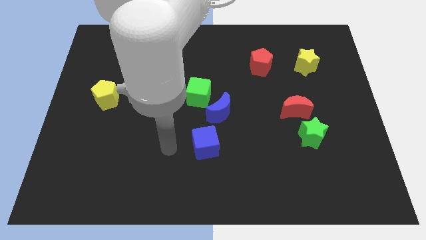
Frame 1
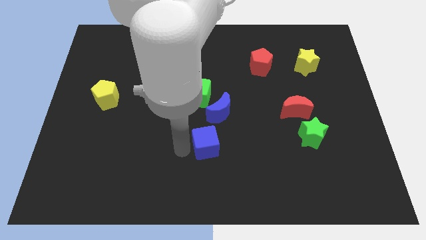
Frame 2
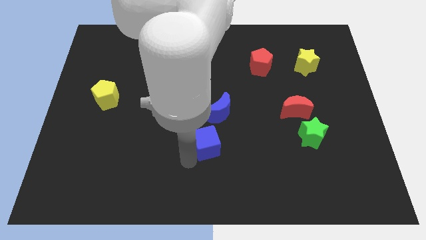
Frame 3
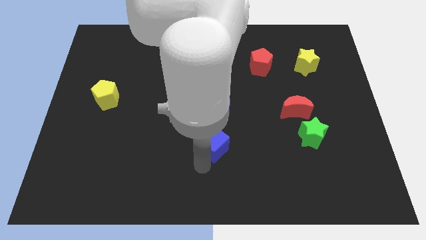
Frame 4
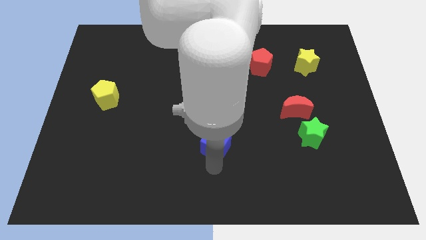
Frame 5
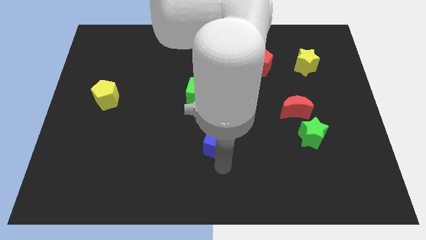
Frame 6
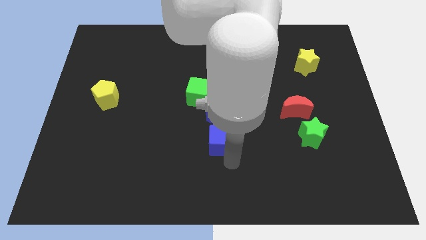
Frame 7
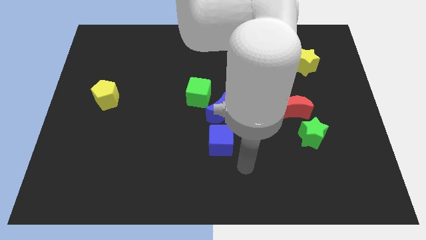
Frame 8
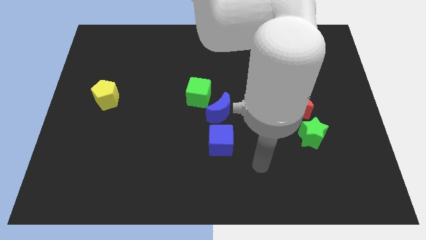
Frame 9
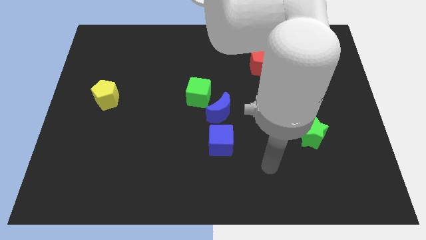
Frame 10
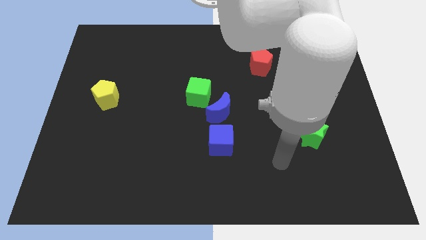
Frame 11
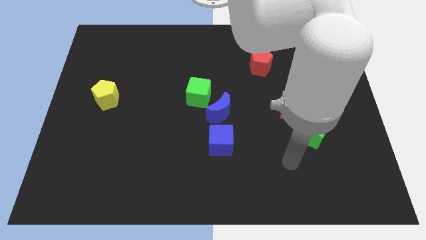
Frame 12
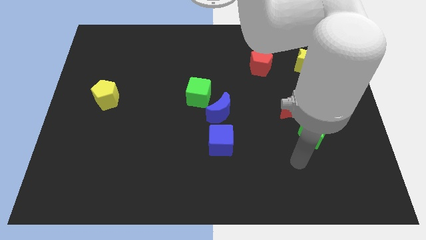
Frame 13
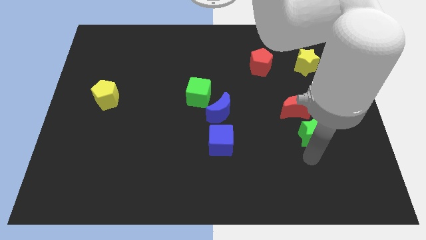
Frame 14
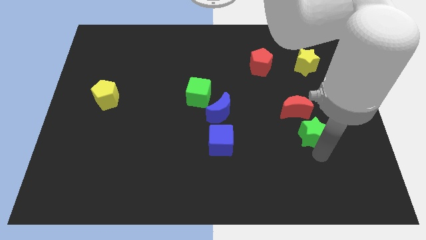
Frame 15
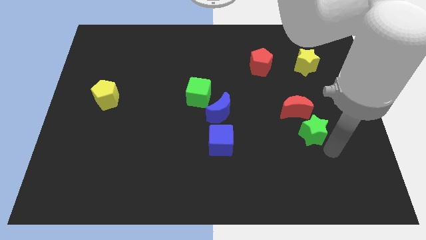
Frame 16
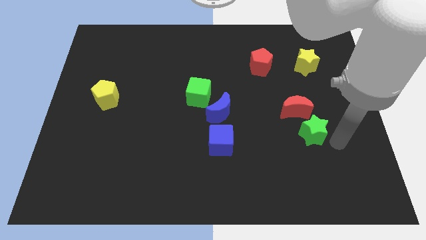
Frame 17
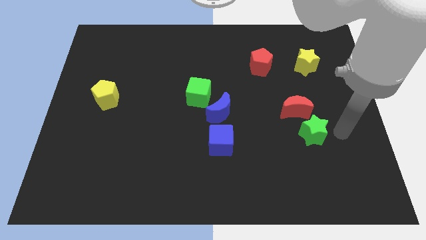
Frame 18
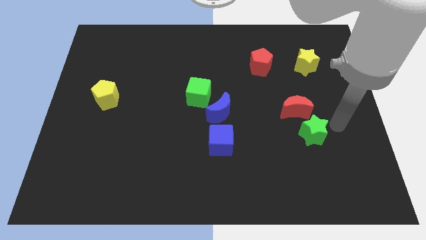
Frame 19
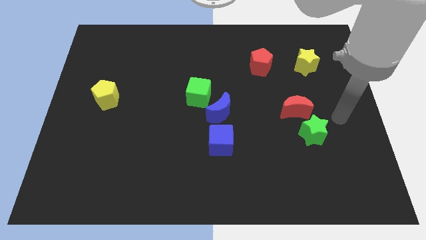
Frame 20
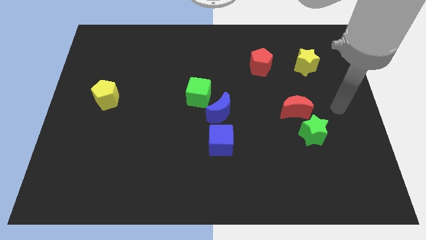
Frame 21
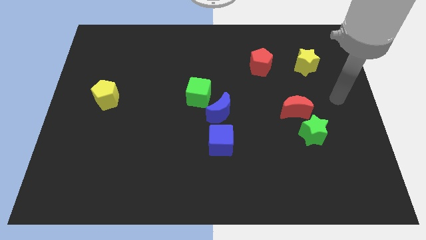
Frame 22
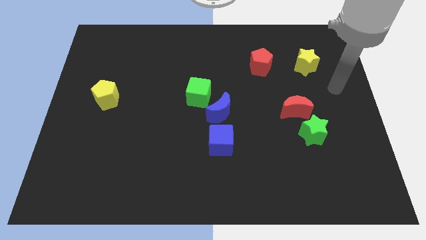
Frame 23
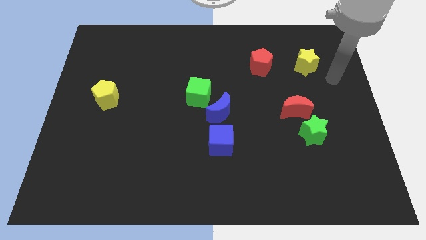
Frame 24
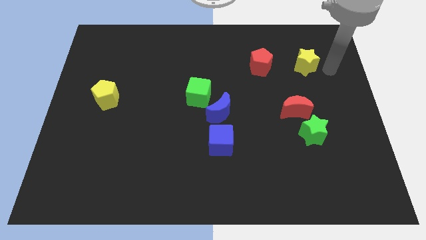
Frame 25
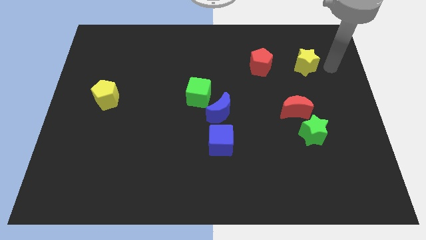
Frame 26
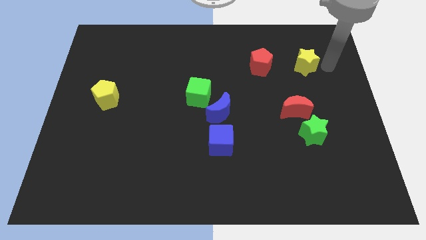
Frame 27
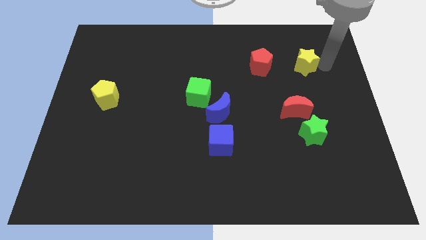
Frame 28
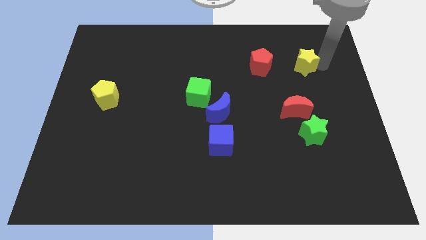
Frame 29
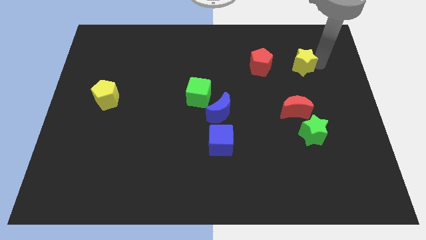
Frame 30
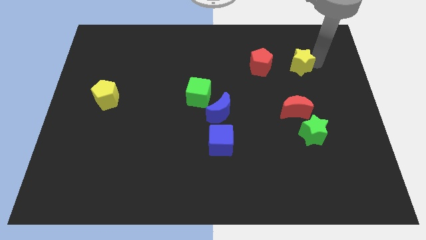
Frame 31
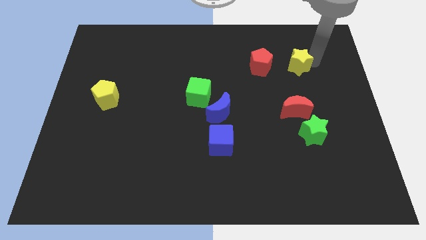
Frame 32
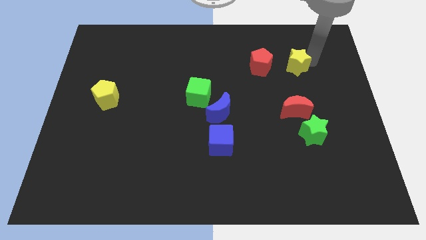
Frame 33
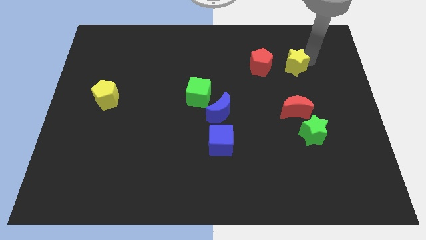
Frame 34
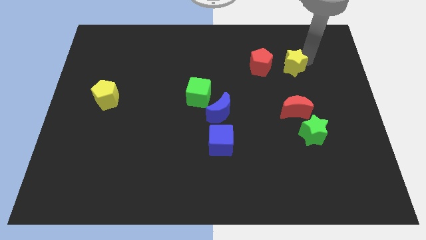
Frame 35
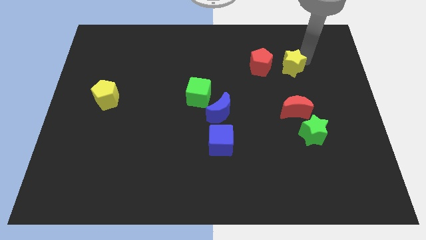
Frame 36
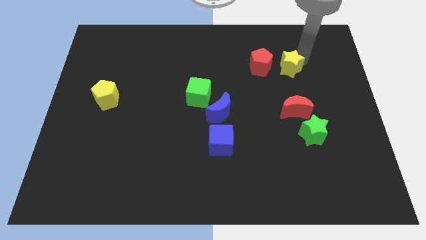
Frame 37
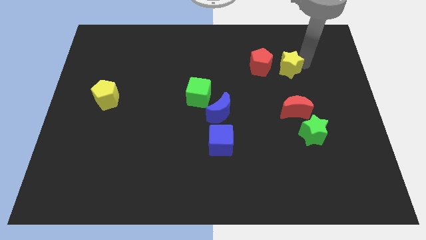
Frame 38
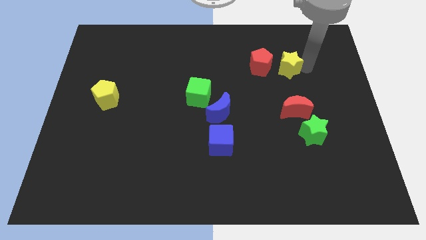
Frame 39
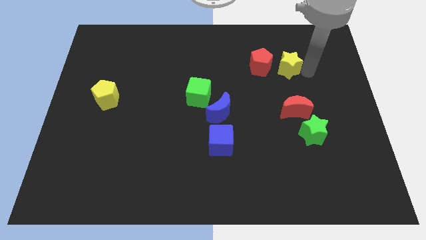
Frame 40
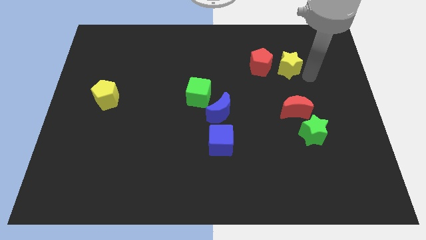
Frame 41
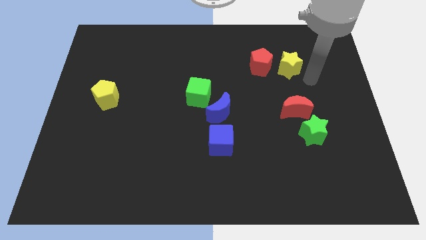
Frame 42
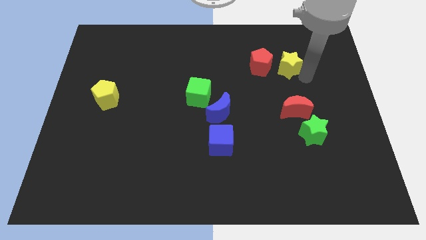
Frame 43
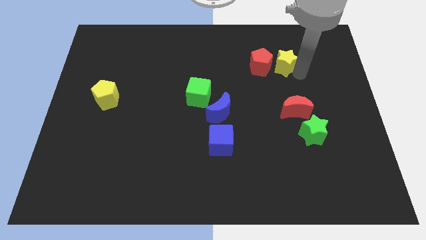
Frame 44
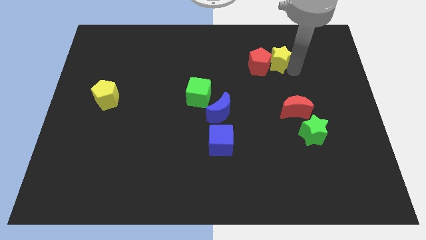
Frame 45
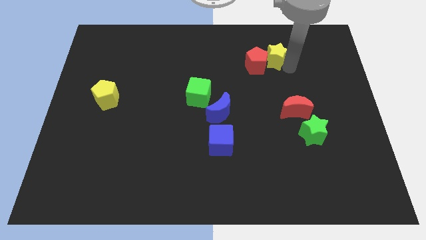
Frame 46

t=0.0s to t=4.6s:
push the yellow star to the left a little bit

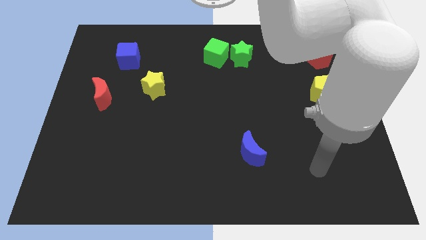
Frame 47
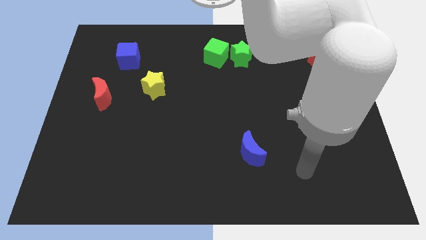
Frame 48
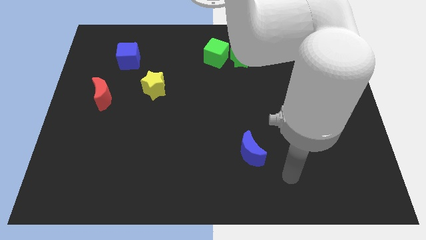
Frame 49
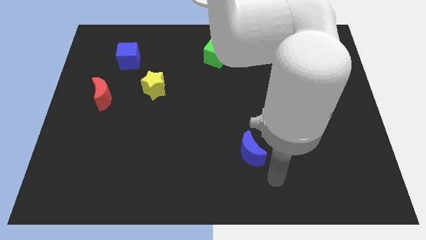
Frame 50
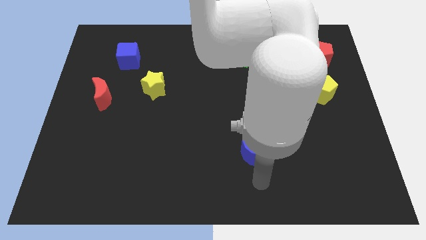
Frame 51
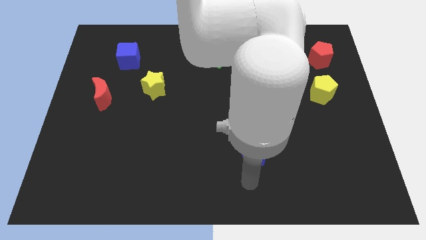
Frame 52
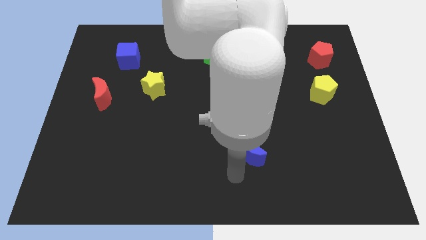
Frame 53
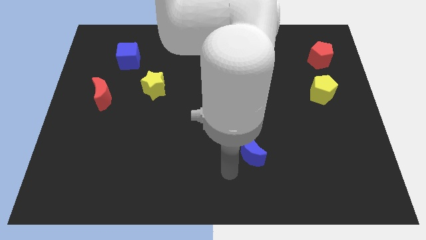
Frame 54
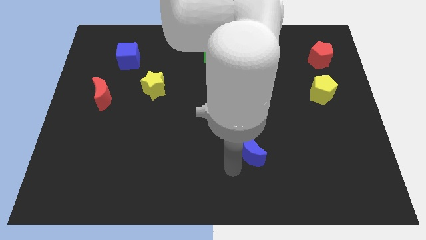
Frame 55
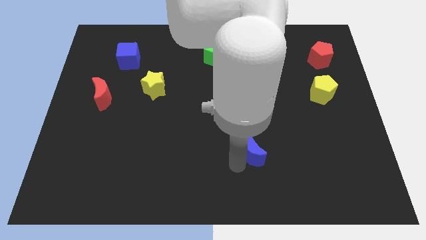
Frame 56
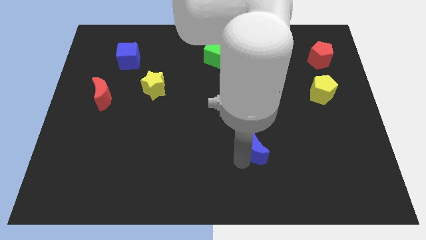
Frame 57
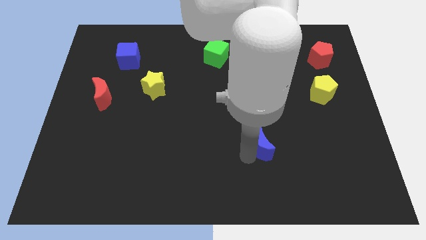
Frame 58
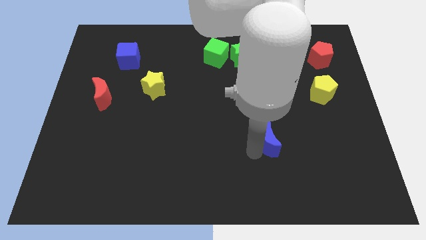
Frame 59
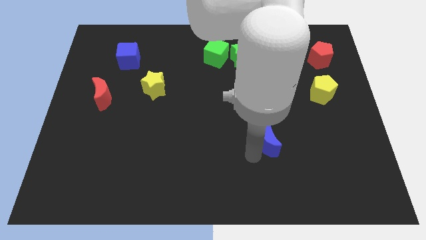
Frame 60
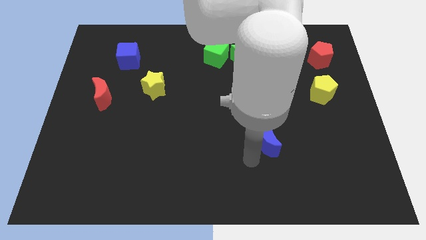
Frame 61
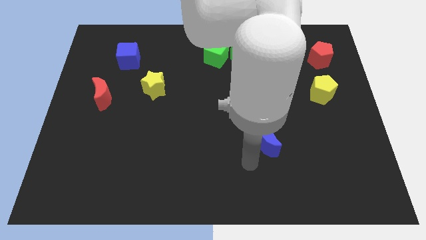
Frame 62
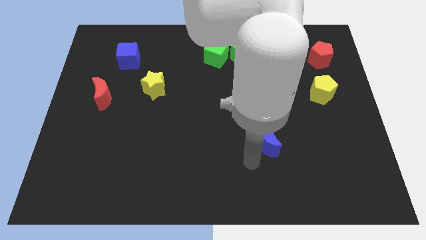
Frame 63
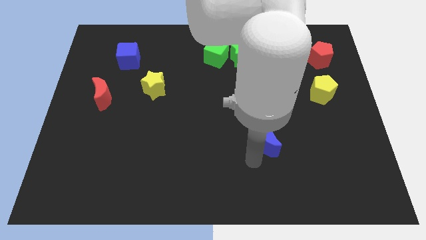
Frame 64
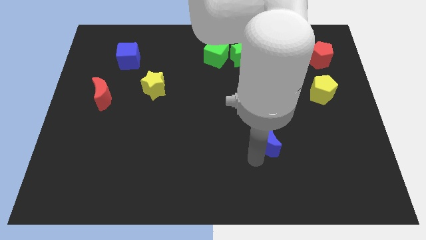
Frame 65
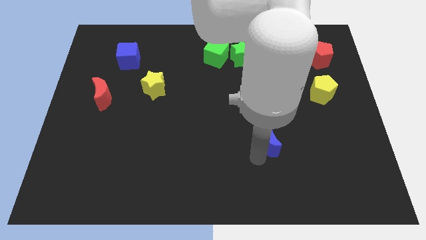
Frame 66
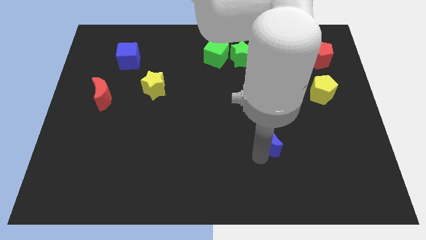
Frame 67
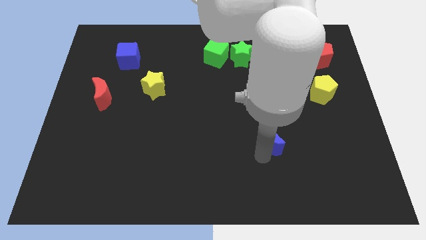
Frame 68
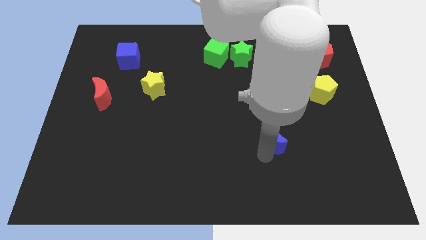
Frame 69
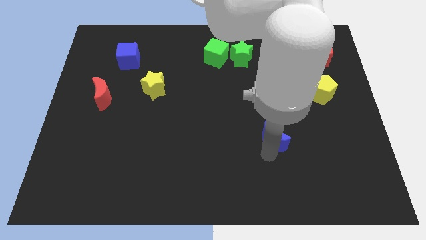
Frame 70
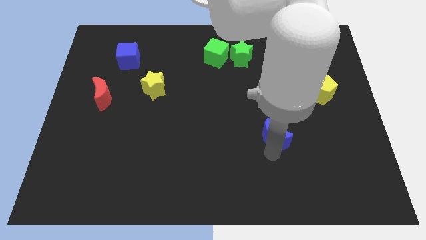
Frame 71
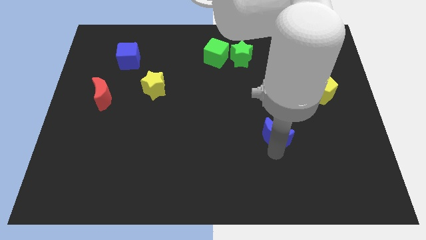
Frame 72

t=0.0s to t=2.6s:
slide the blue moon upwards and to the right diagonally slightly

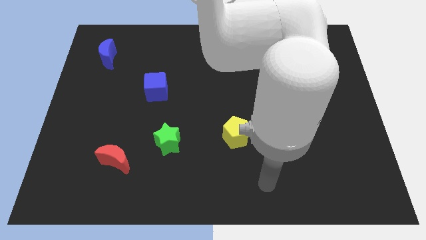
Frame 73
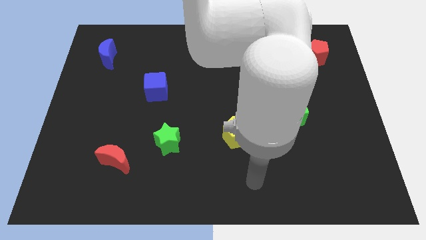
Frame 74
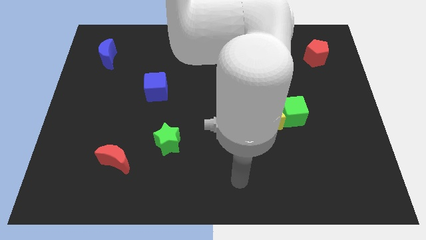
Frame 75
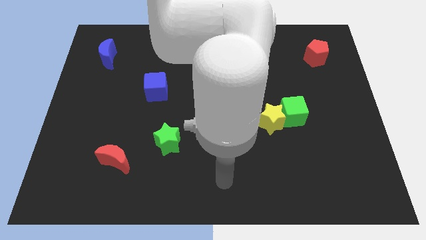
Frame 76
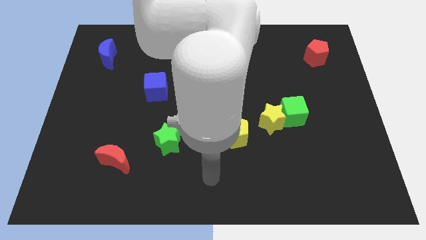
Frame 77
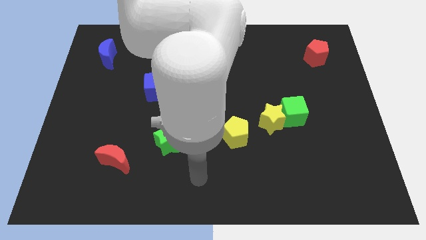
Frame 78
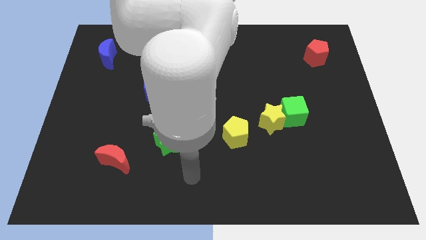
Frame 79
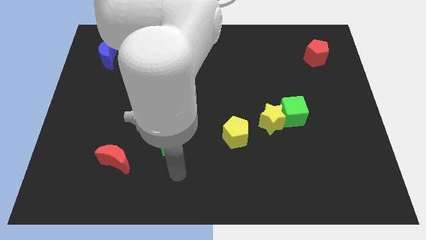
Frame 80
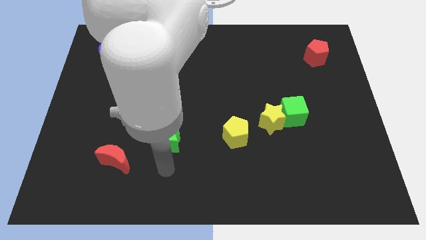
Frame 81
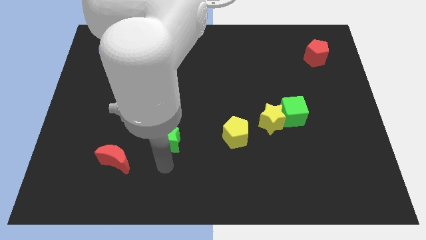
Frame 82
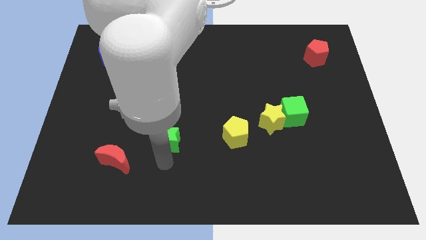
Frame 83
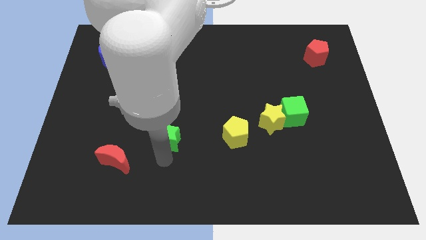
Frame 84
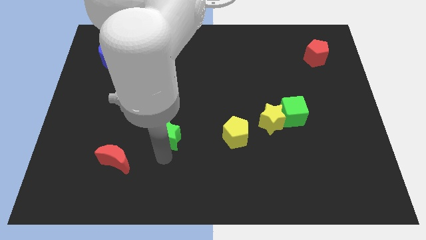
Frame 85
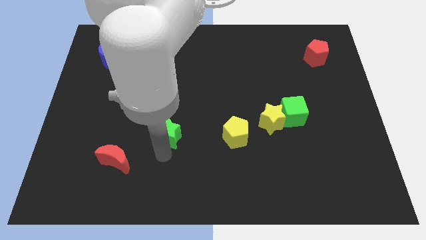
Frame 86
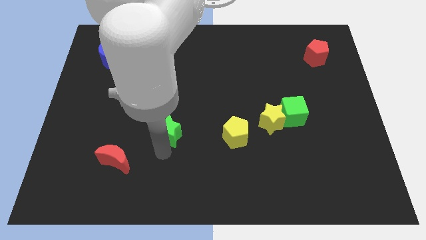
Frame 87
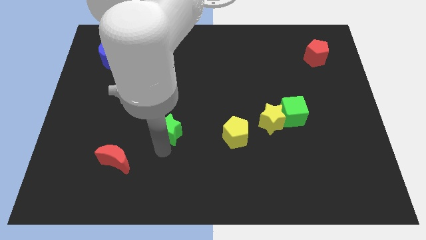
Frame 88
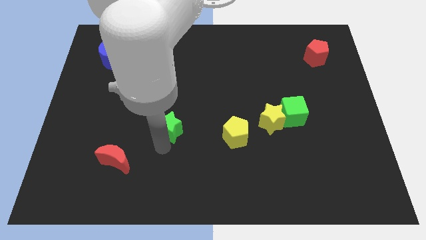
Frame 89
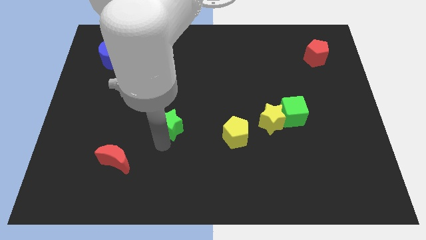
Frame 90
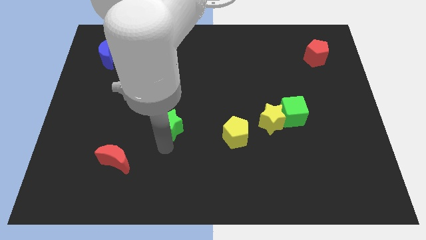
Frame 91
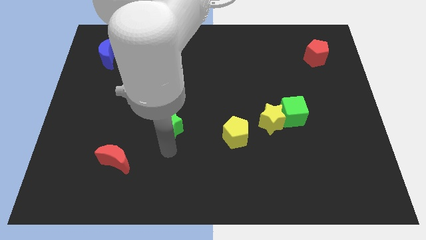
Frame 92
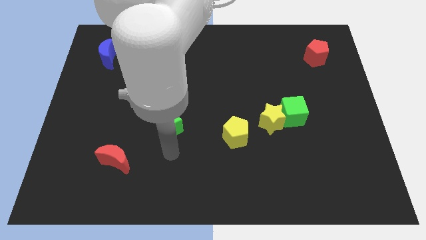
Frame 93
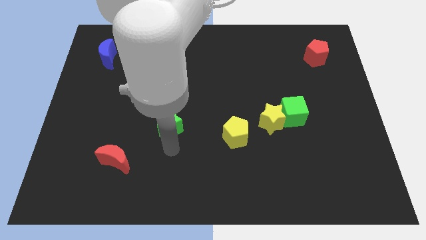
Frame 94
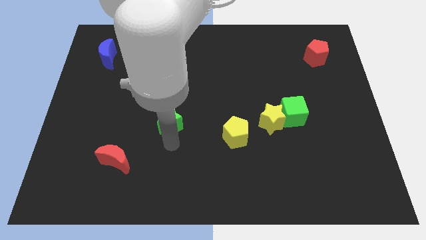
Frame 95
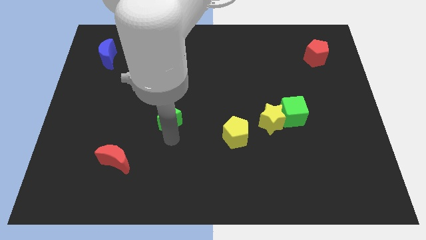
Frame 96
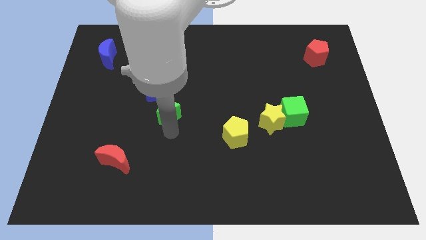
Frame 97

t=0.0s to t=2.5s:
slightly slide the green star upwards
